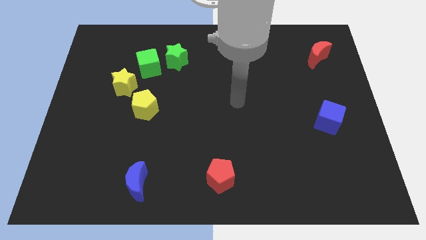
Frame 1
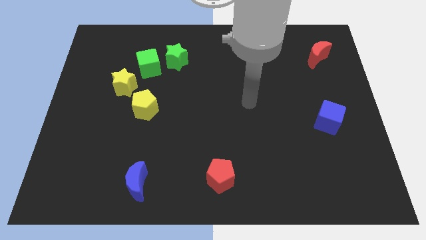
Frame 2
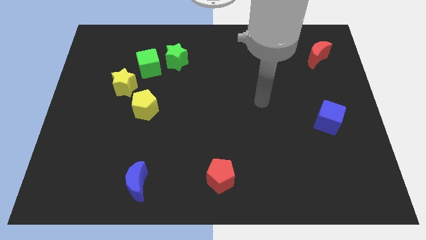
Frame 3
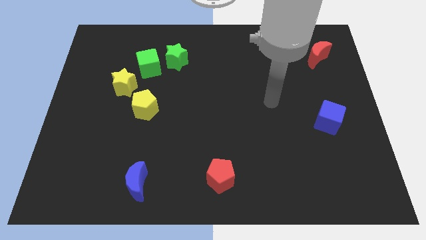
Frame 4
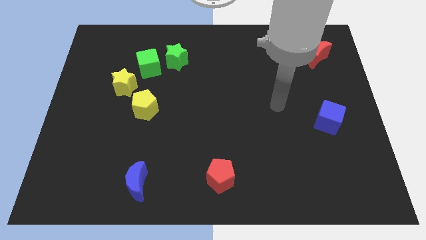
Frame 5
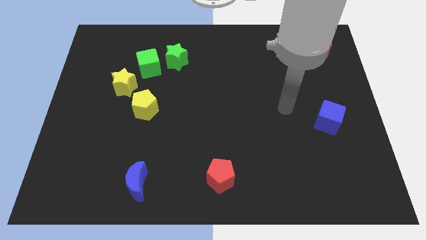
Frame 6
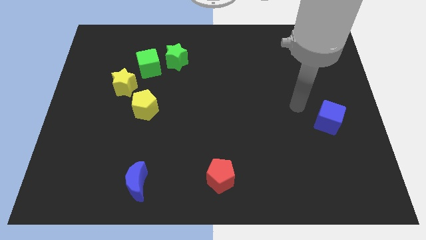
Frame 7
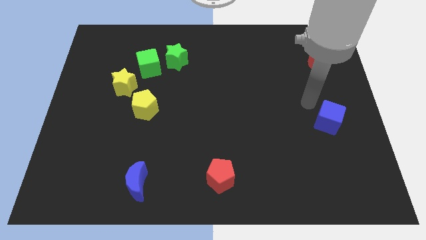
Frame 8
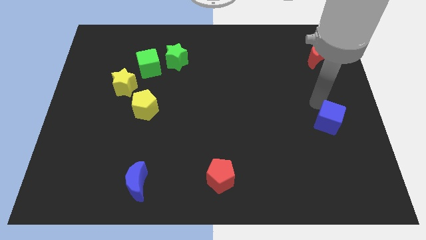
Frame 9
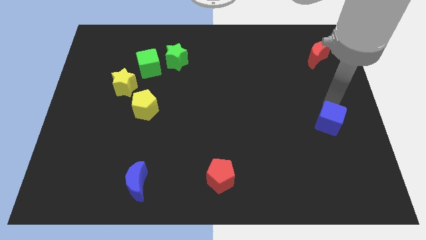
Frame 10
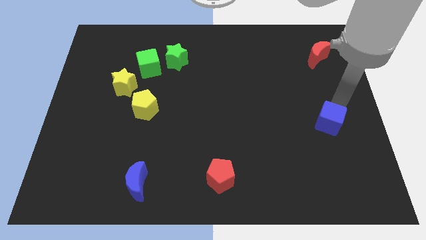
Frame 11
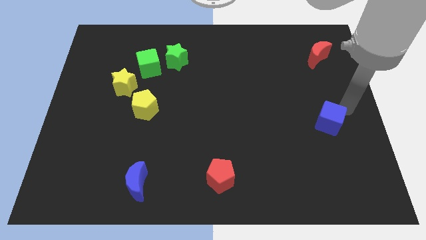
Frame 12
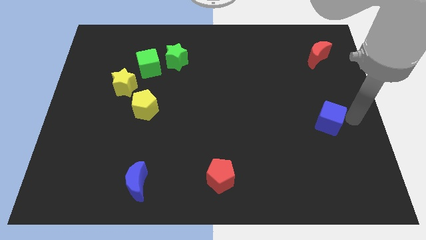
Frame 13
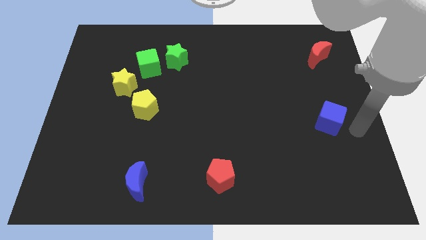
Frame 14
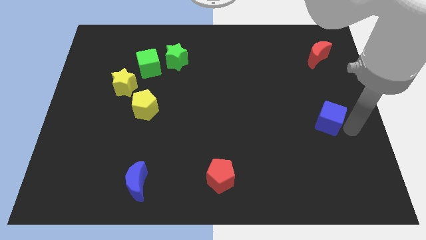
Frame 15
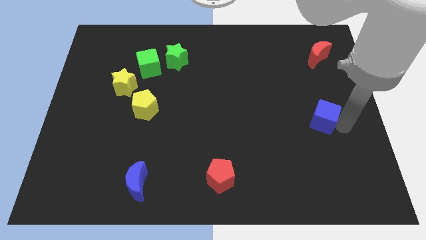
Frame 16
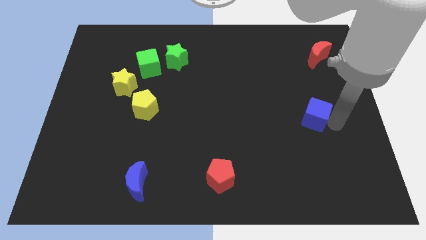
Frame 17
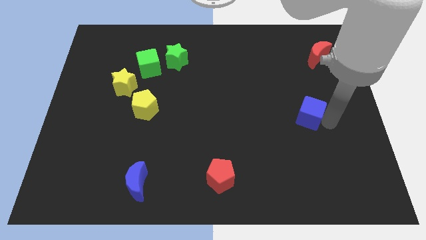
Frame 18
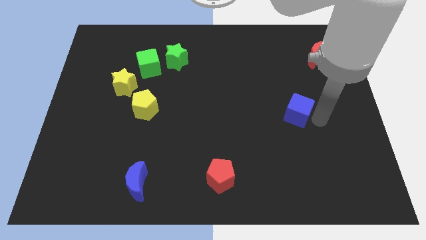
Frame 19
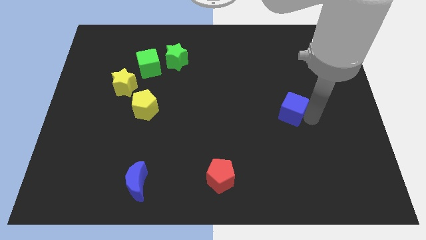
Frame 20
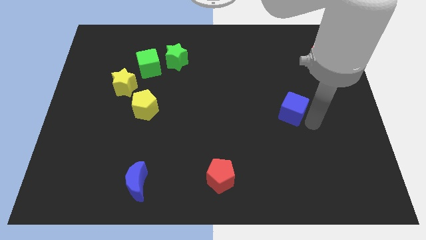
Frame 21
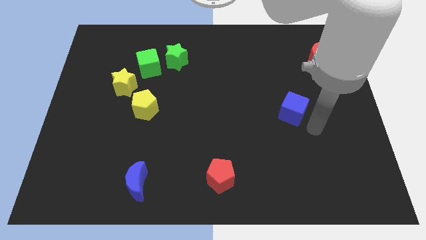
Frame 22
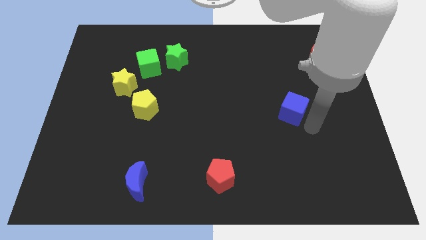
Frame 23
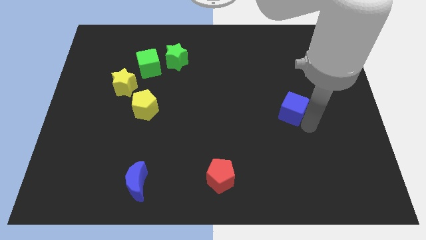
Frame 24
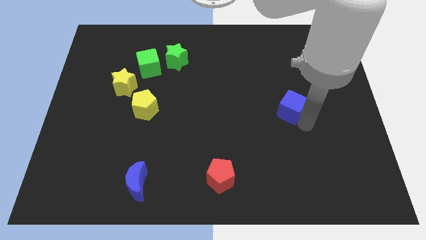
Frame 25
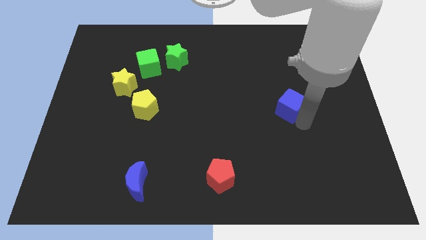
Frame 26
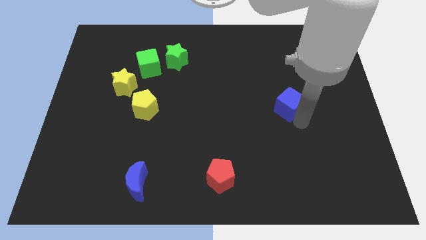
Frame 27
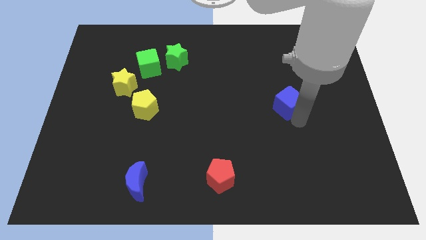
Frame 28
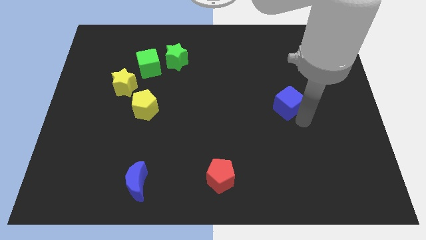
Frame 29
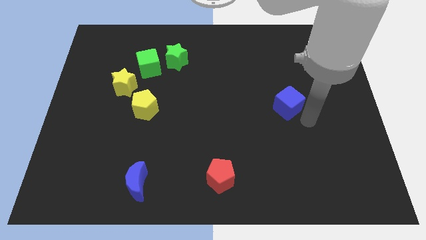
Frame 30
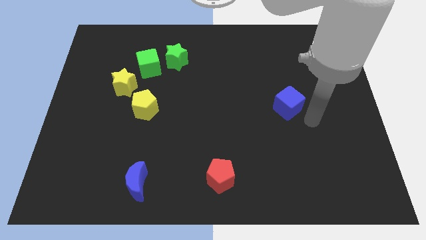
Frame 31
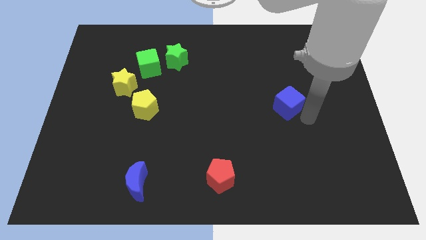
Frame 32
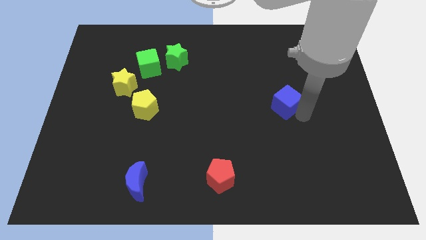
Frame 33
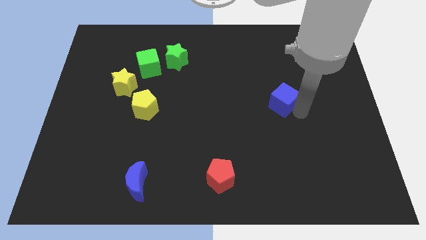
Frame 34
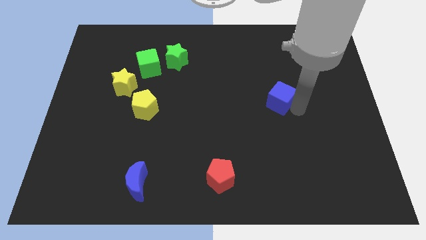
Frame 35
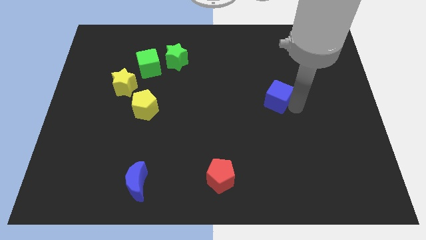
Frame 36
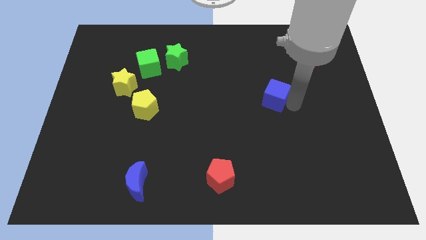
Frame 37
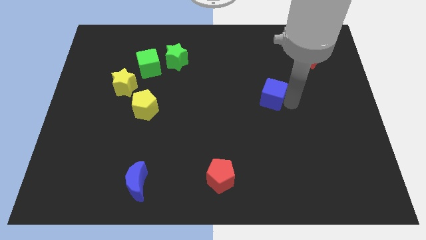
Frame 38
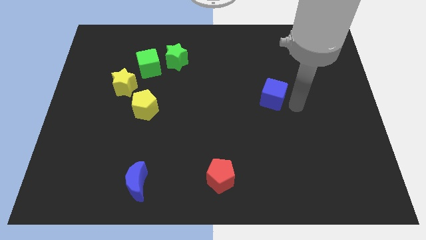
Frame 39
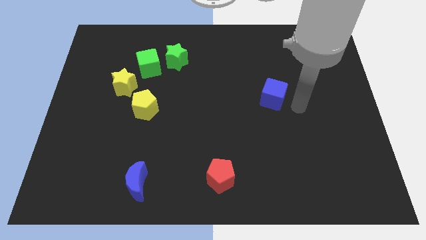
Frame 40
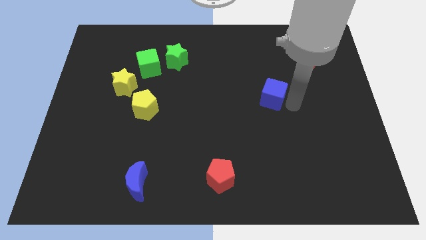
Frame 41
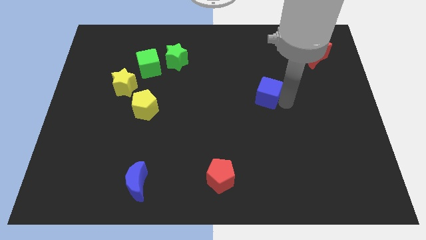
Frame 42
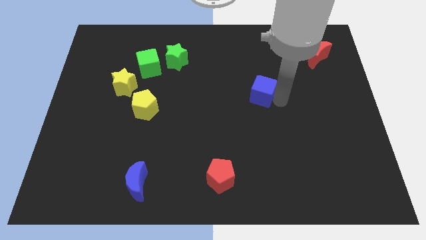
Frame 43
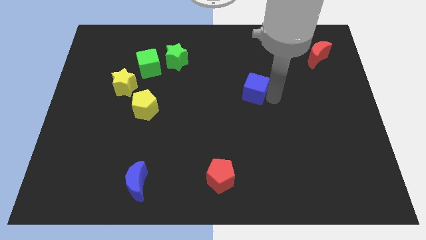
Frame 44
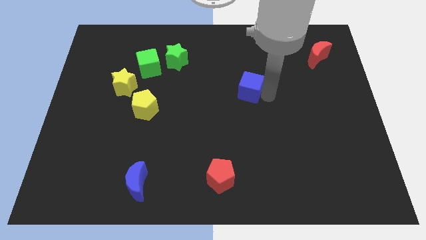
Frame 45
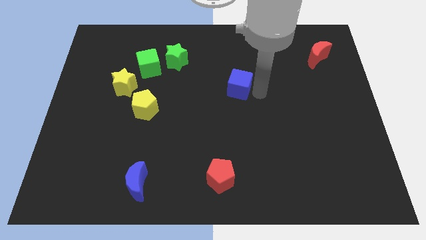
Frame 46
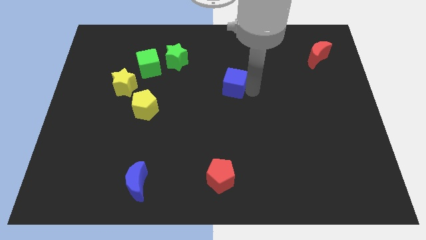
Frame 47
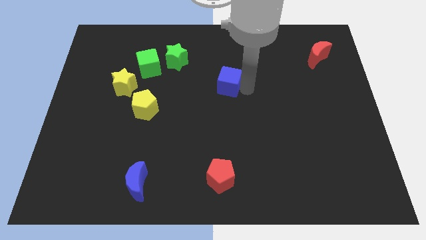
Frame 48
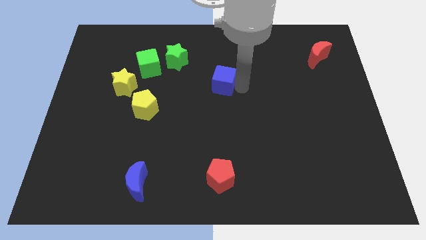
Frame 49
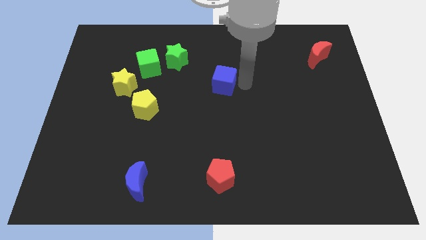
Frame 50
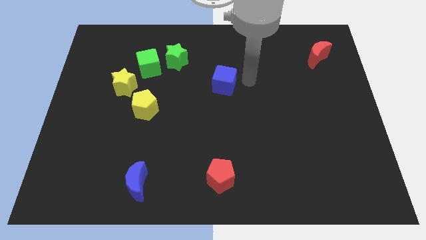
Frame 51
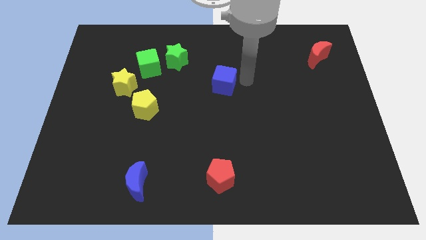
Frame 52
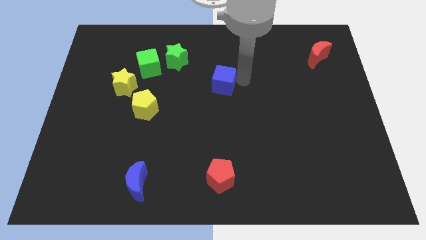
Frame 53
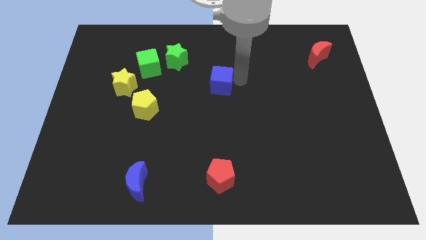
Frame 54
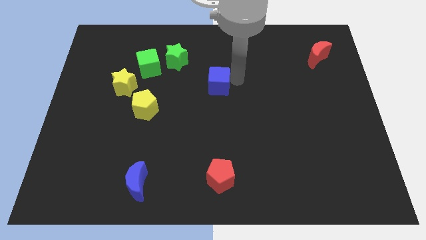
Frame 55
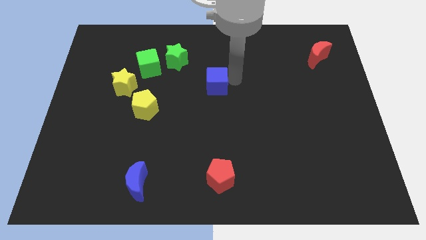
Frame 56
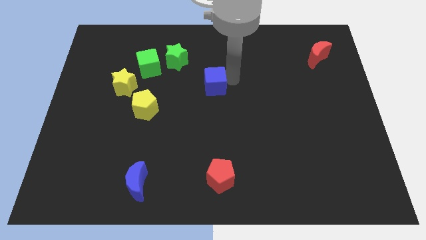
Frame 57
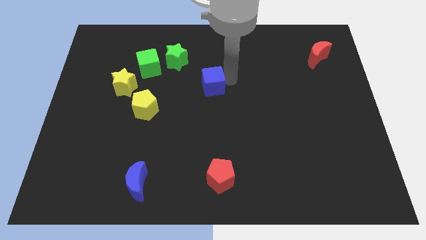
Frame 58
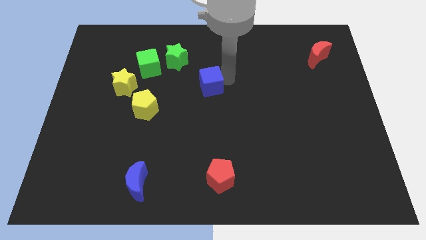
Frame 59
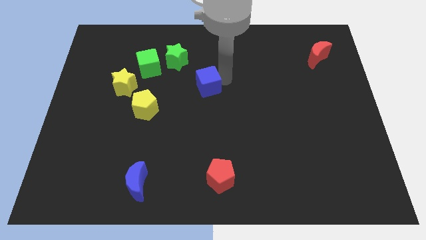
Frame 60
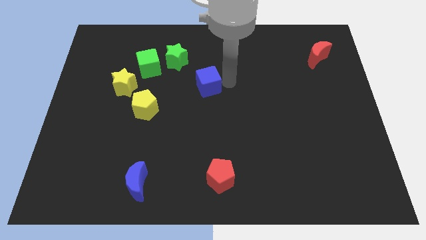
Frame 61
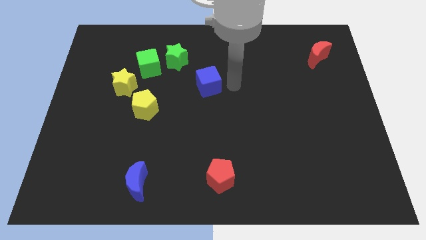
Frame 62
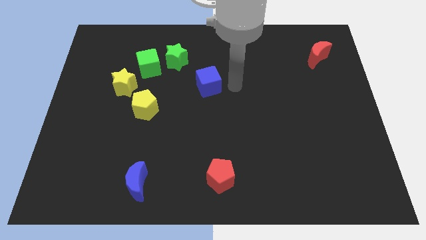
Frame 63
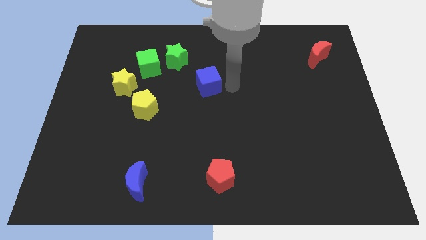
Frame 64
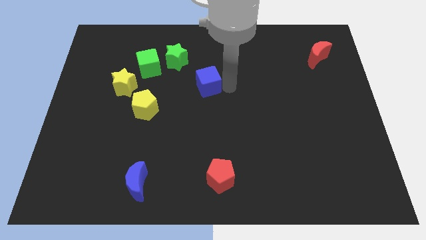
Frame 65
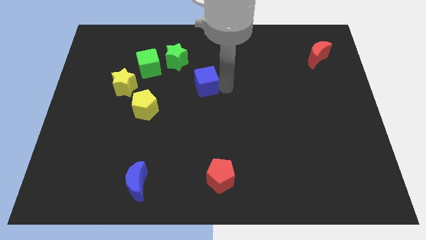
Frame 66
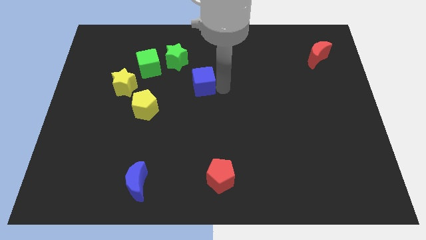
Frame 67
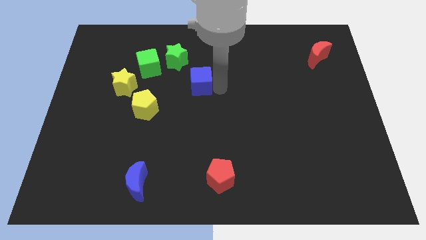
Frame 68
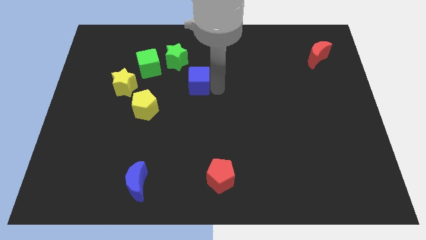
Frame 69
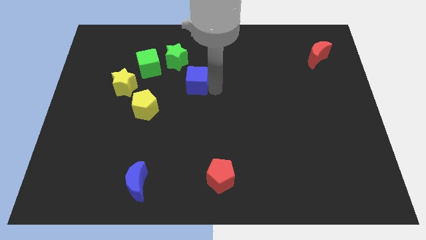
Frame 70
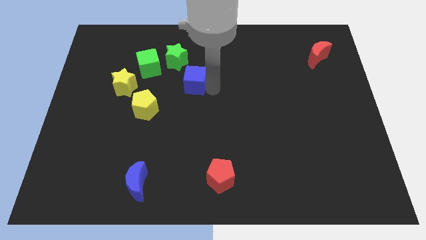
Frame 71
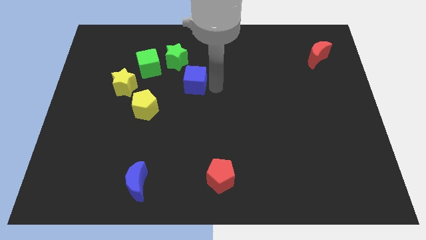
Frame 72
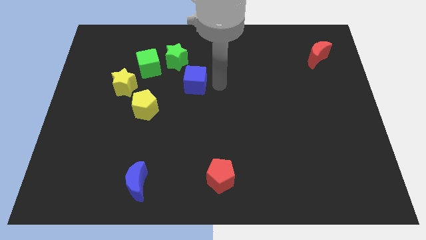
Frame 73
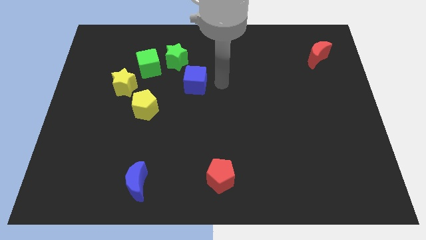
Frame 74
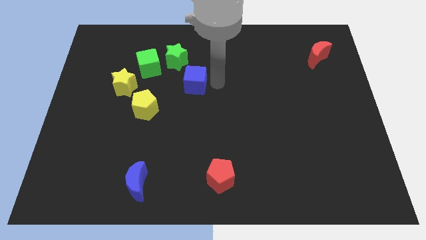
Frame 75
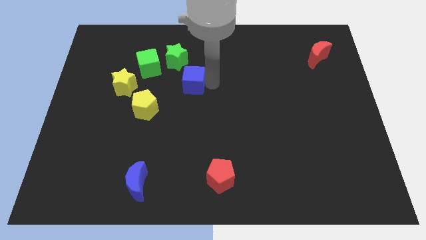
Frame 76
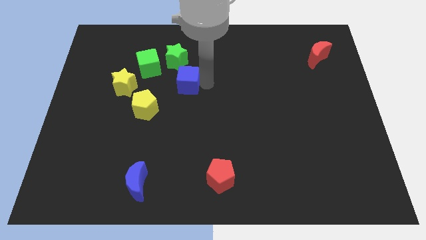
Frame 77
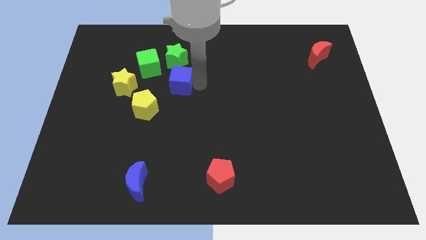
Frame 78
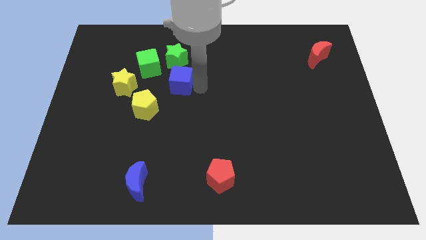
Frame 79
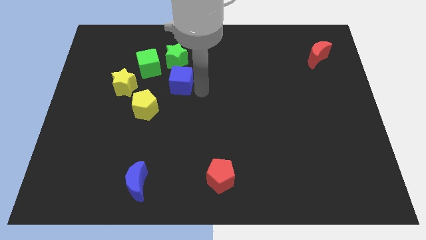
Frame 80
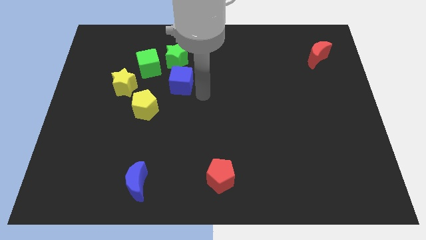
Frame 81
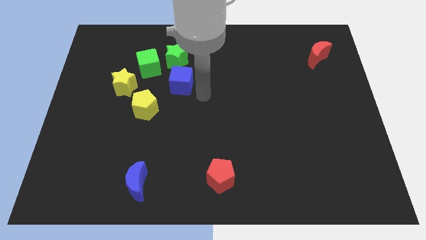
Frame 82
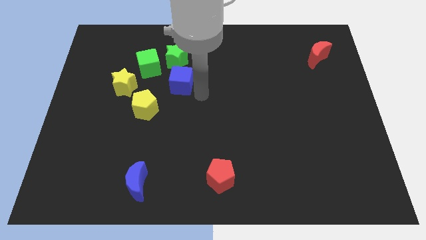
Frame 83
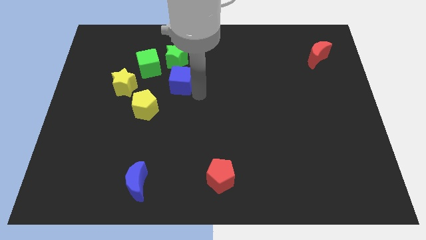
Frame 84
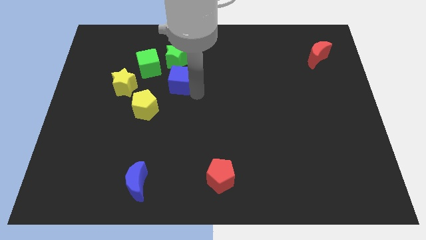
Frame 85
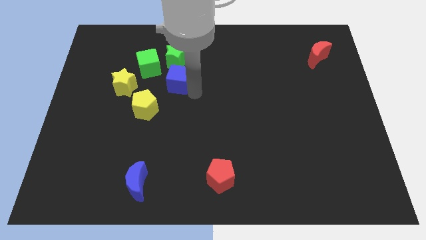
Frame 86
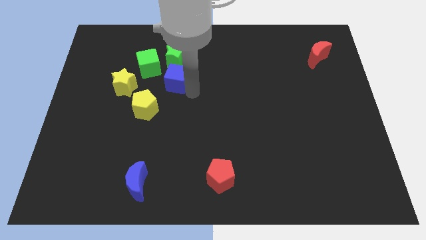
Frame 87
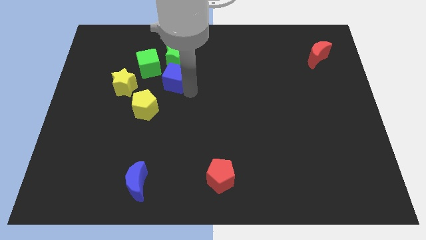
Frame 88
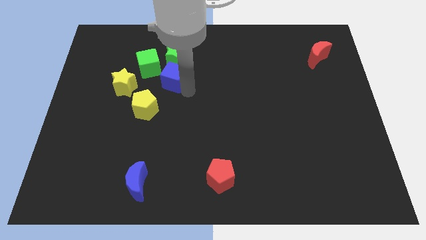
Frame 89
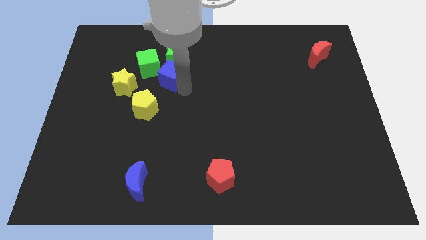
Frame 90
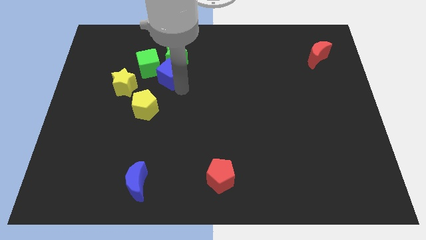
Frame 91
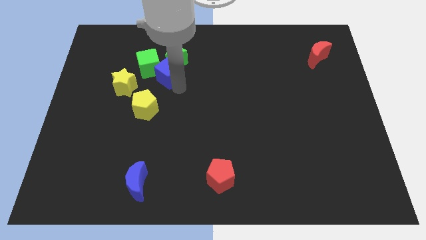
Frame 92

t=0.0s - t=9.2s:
move the blue cube towards the green cube
